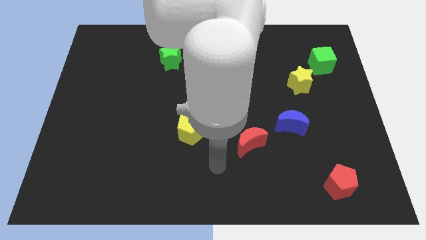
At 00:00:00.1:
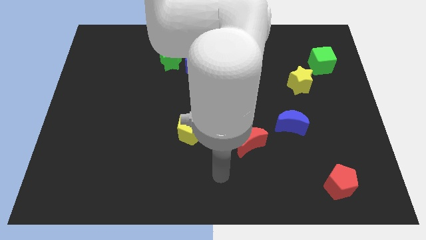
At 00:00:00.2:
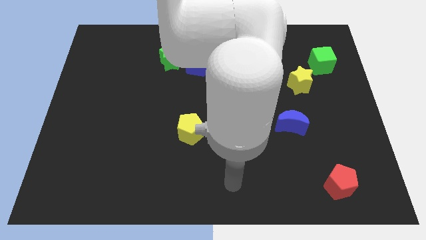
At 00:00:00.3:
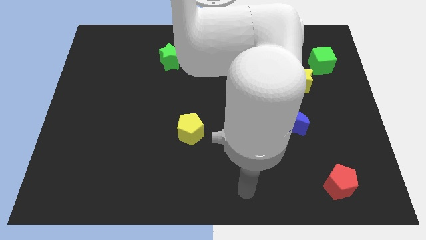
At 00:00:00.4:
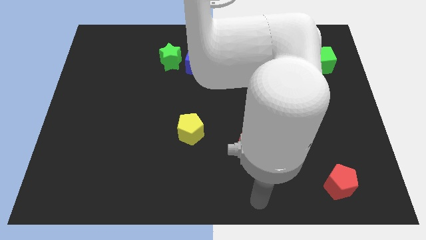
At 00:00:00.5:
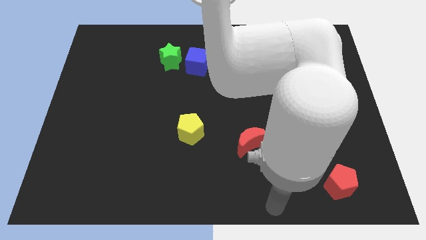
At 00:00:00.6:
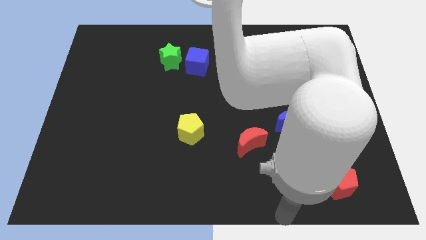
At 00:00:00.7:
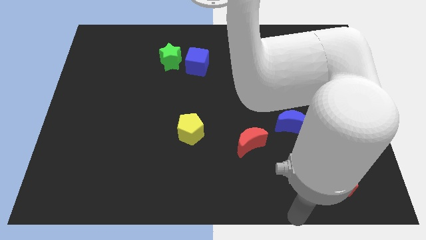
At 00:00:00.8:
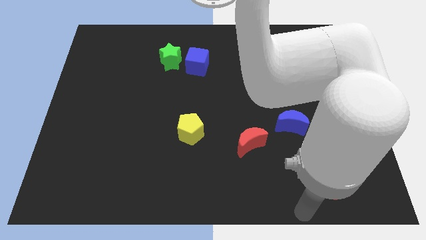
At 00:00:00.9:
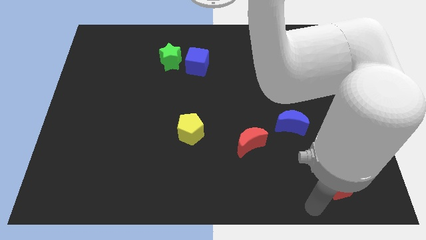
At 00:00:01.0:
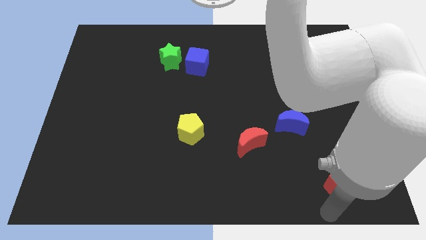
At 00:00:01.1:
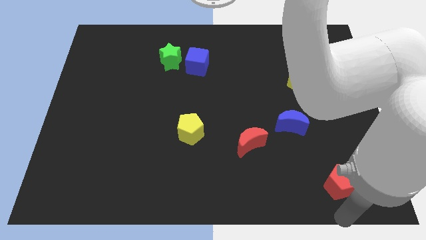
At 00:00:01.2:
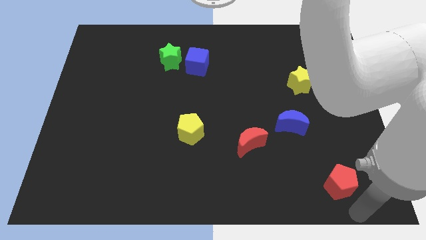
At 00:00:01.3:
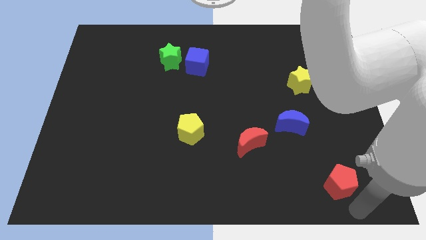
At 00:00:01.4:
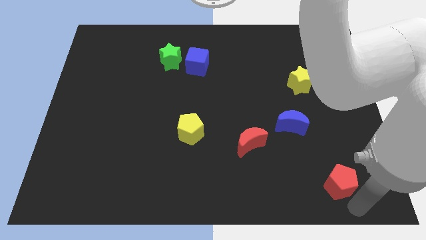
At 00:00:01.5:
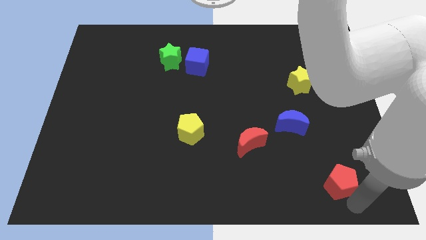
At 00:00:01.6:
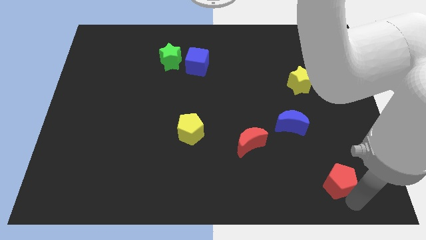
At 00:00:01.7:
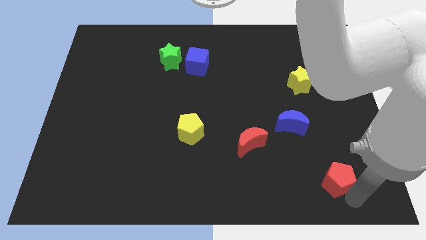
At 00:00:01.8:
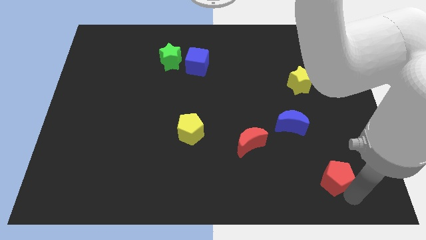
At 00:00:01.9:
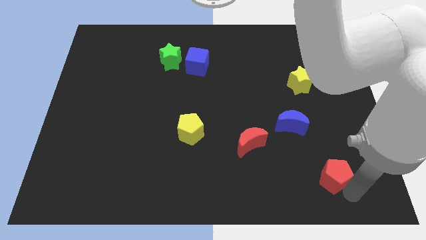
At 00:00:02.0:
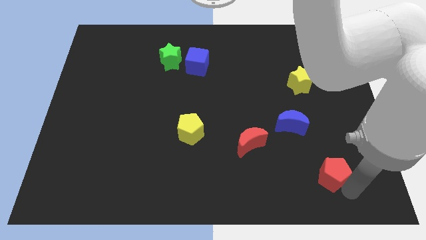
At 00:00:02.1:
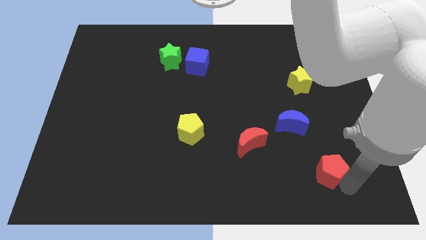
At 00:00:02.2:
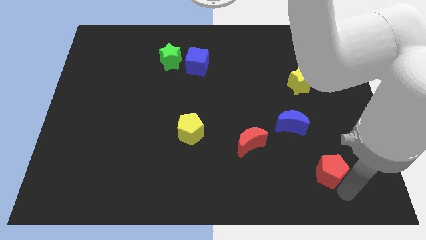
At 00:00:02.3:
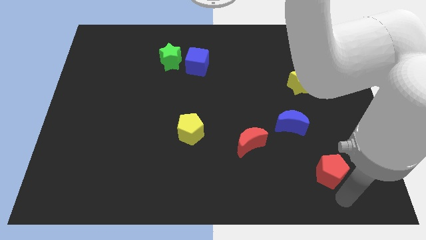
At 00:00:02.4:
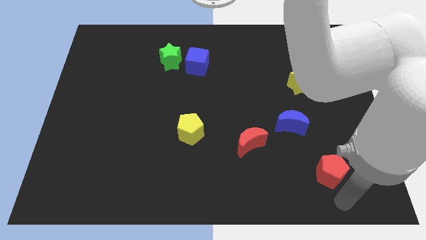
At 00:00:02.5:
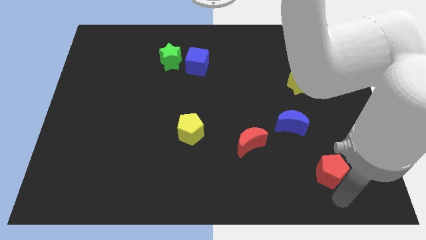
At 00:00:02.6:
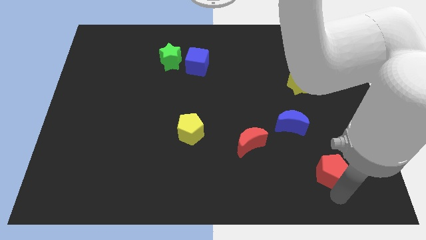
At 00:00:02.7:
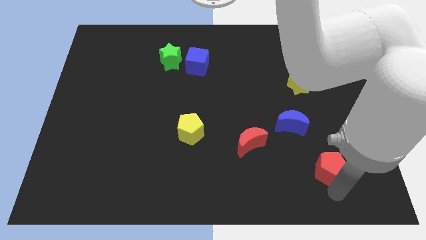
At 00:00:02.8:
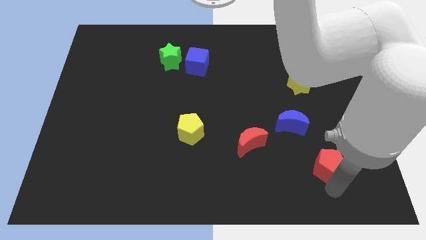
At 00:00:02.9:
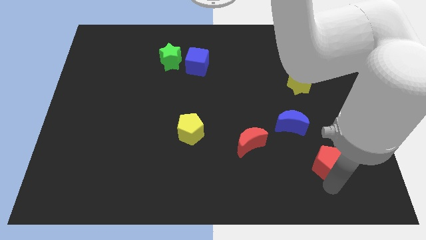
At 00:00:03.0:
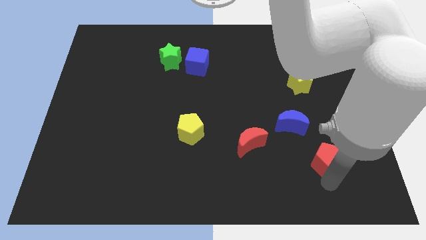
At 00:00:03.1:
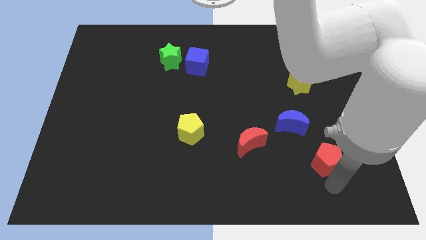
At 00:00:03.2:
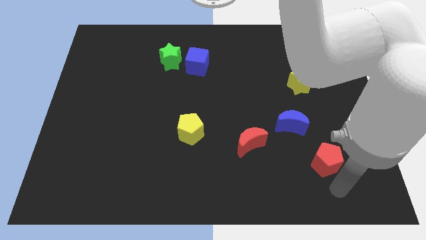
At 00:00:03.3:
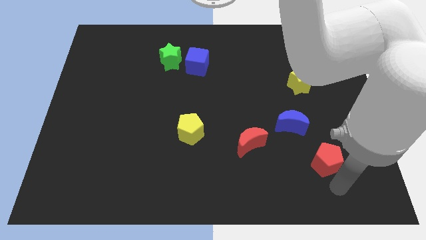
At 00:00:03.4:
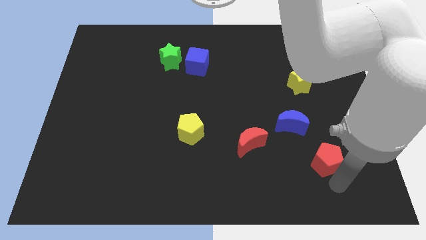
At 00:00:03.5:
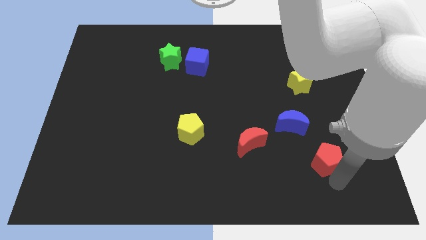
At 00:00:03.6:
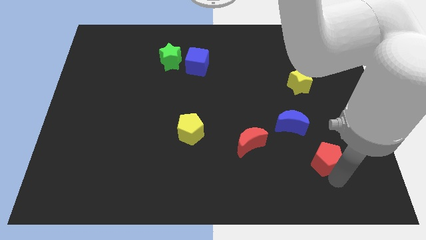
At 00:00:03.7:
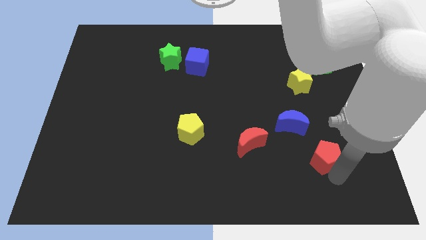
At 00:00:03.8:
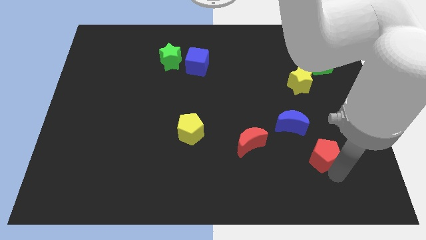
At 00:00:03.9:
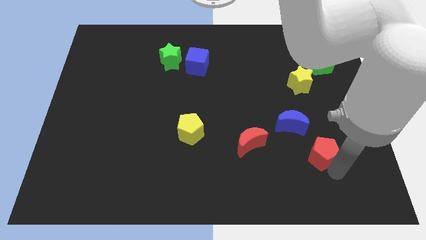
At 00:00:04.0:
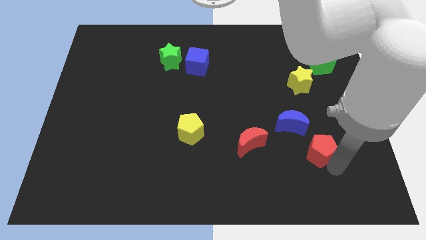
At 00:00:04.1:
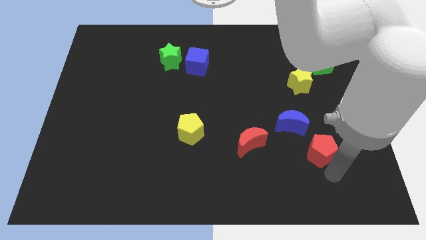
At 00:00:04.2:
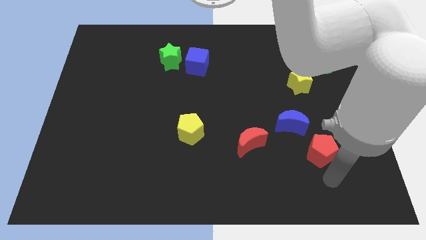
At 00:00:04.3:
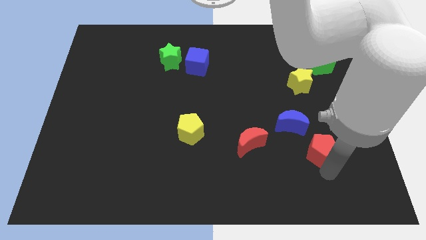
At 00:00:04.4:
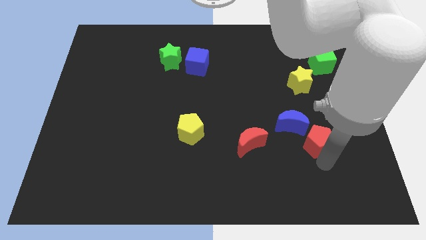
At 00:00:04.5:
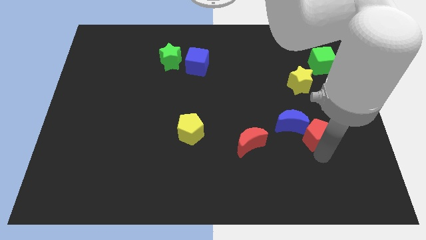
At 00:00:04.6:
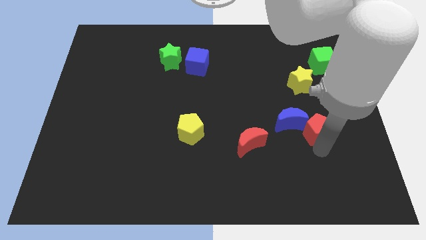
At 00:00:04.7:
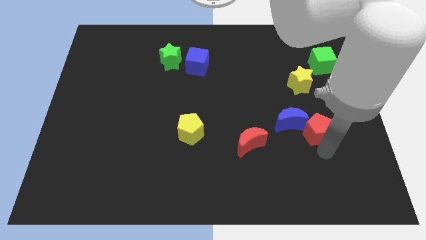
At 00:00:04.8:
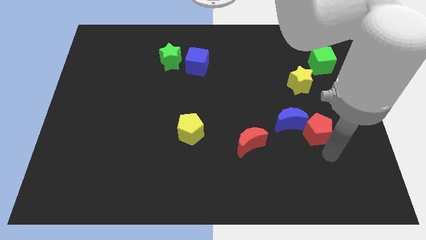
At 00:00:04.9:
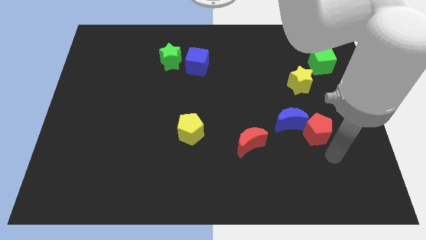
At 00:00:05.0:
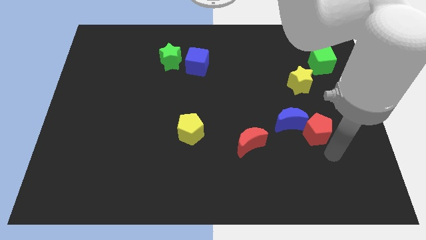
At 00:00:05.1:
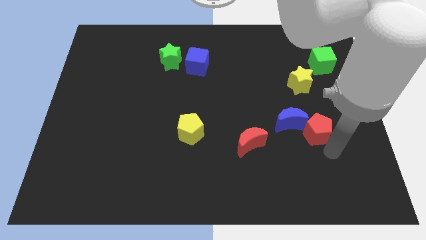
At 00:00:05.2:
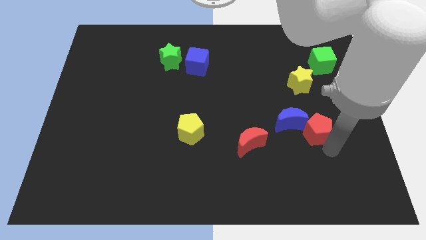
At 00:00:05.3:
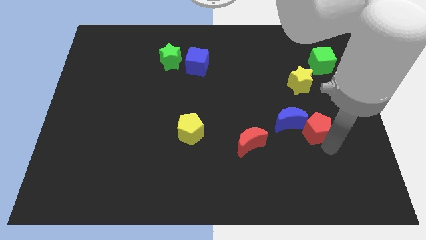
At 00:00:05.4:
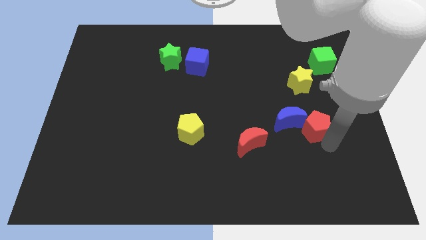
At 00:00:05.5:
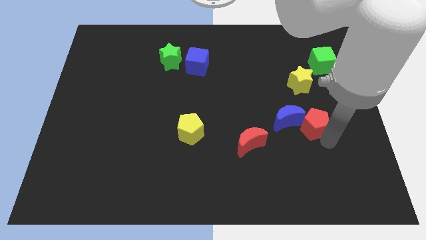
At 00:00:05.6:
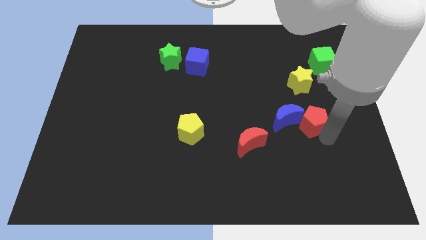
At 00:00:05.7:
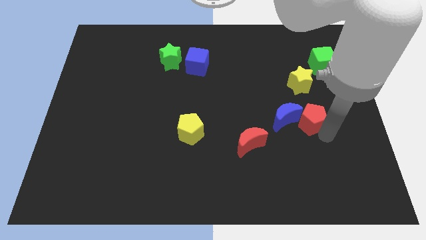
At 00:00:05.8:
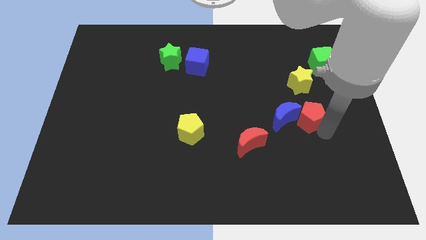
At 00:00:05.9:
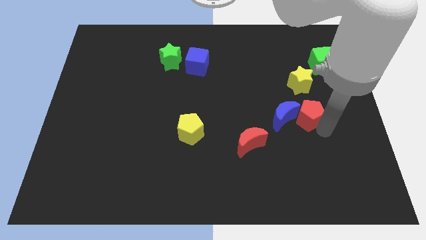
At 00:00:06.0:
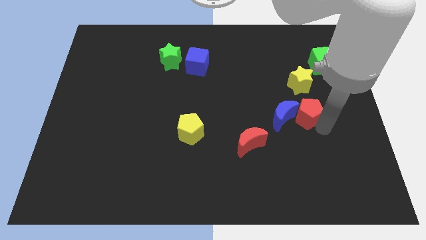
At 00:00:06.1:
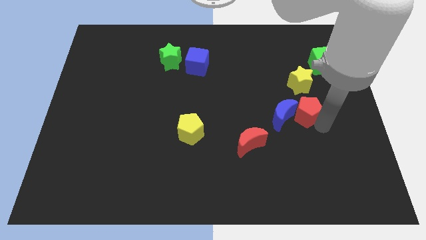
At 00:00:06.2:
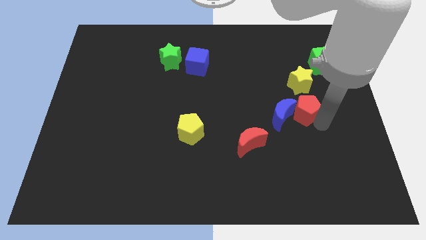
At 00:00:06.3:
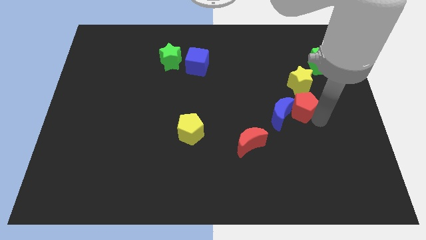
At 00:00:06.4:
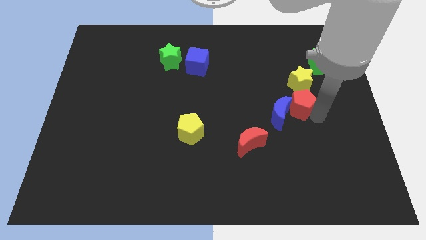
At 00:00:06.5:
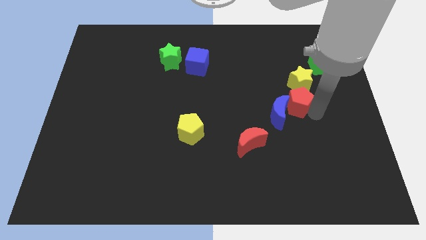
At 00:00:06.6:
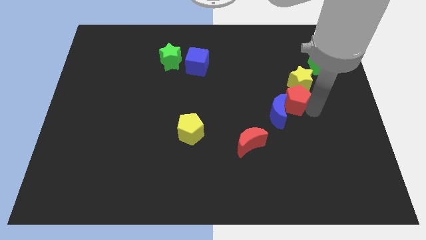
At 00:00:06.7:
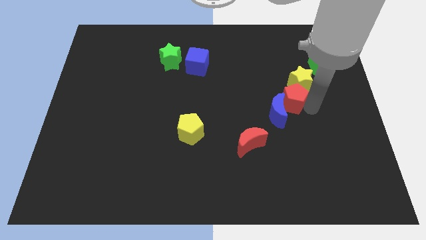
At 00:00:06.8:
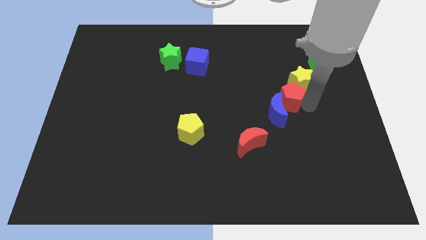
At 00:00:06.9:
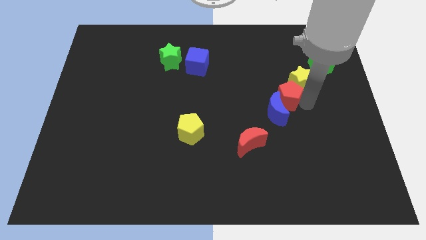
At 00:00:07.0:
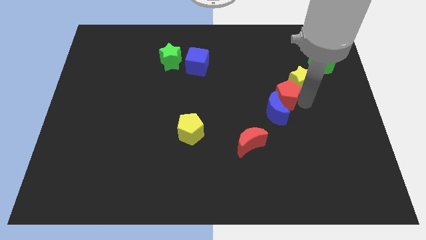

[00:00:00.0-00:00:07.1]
slide the red pentagon to the left of the yellow star
